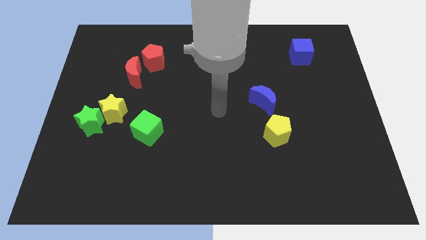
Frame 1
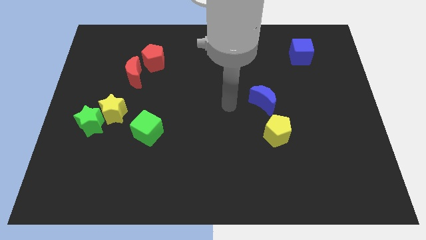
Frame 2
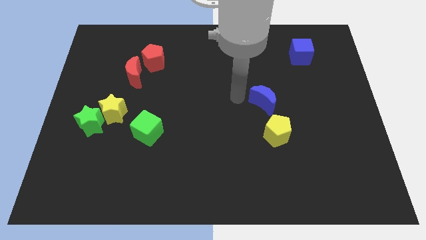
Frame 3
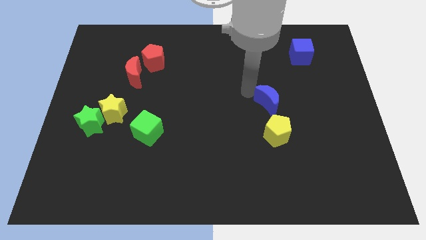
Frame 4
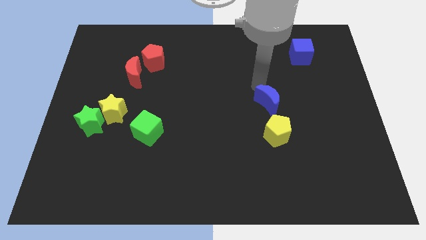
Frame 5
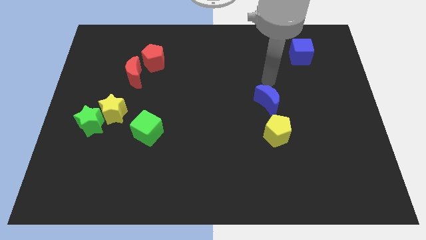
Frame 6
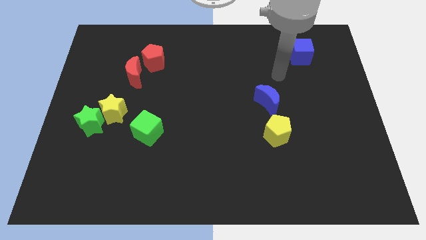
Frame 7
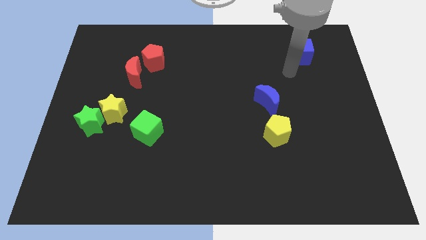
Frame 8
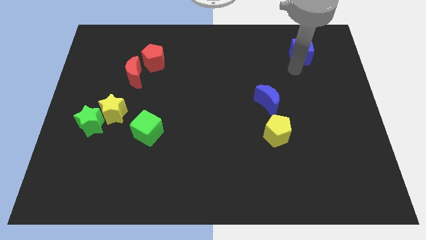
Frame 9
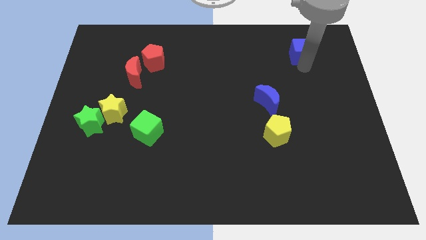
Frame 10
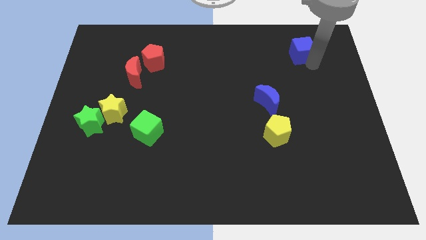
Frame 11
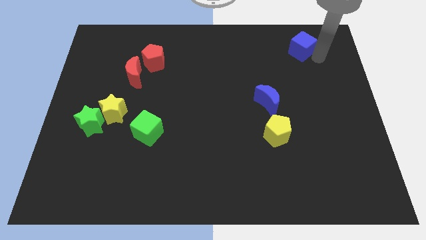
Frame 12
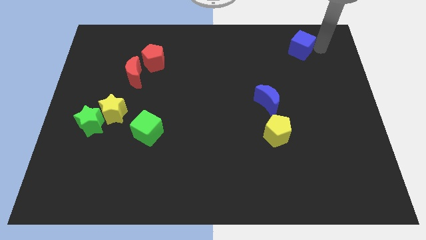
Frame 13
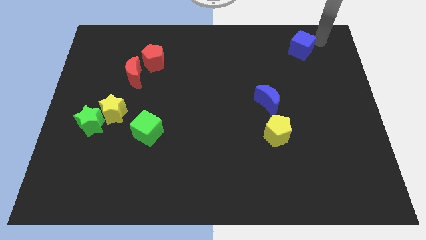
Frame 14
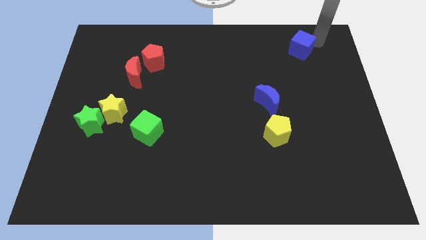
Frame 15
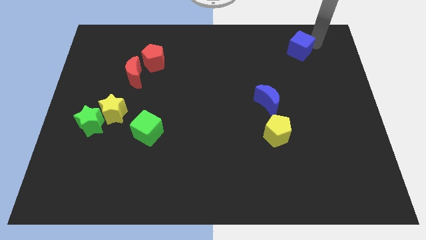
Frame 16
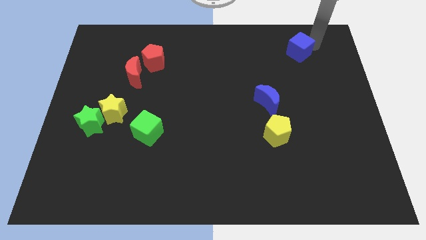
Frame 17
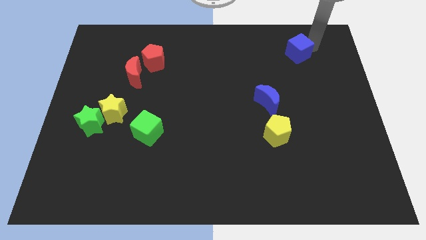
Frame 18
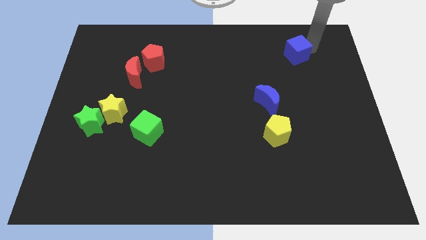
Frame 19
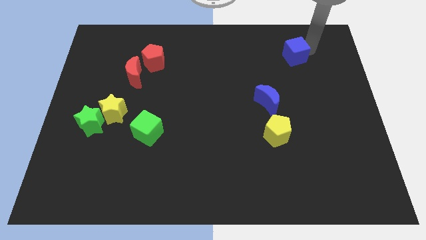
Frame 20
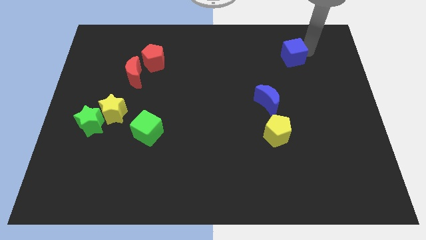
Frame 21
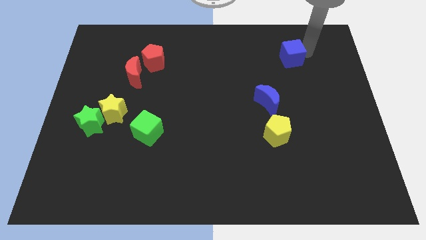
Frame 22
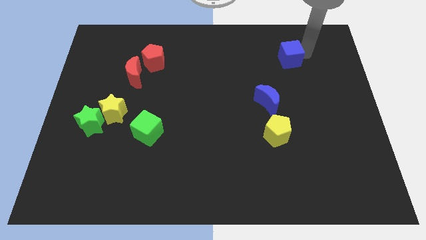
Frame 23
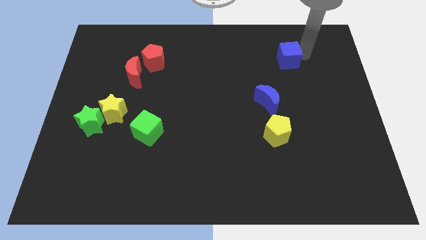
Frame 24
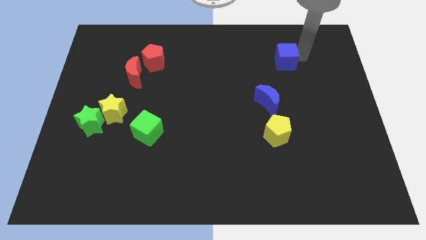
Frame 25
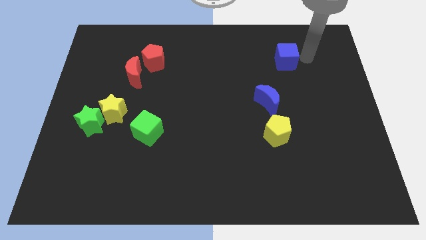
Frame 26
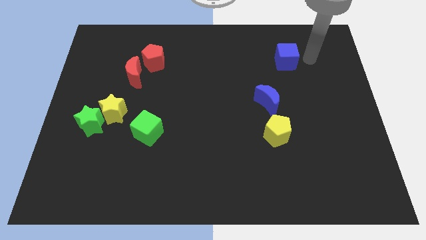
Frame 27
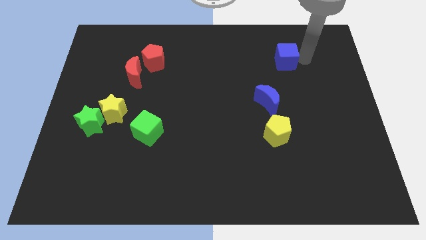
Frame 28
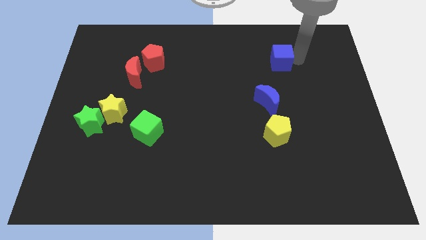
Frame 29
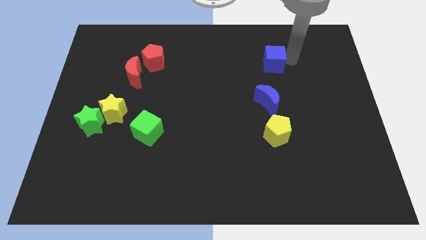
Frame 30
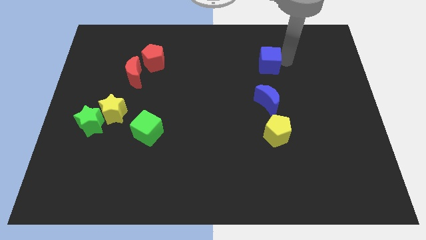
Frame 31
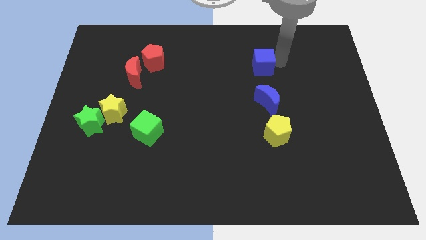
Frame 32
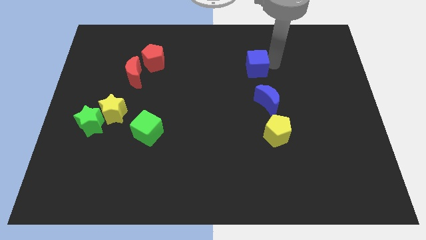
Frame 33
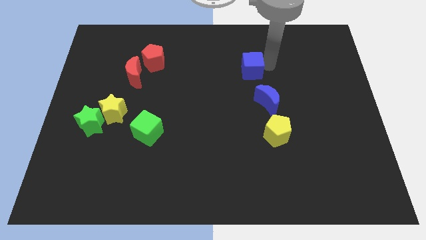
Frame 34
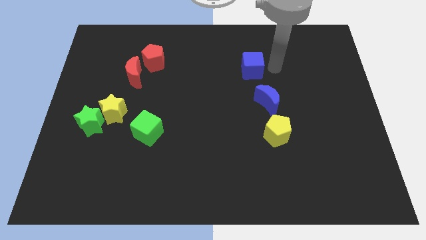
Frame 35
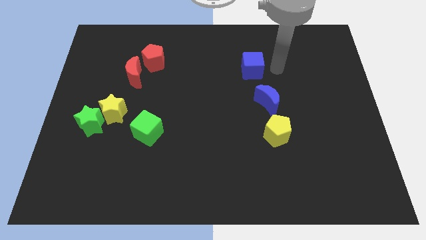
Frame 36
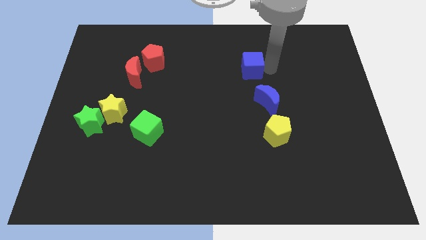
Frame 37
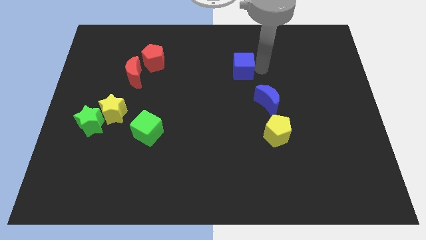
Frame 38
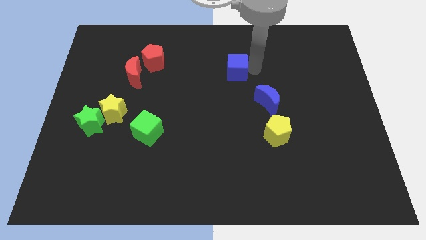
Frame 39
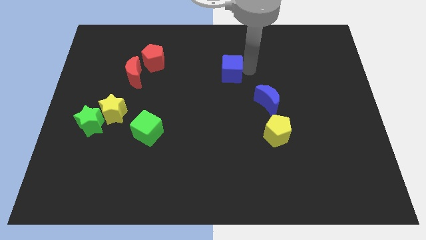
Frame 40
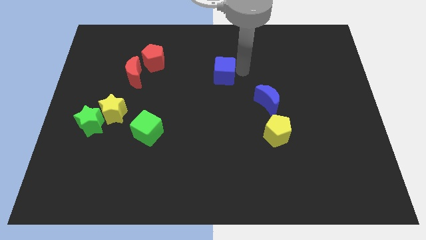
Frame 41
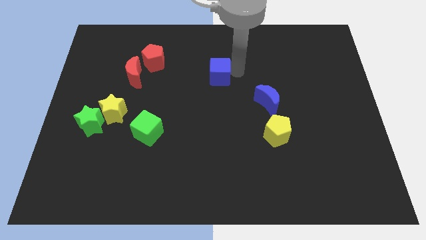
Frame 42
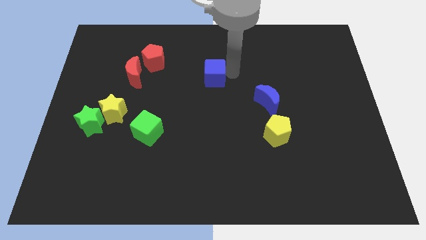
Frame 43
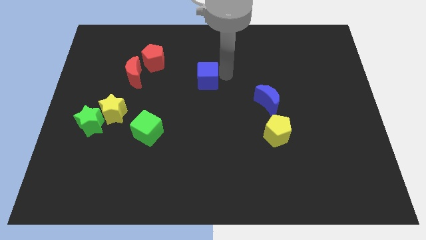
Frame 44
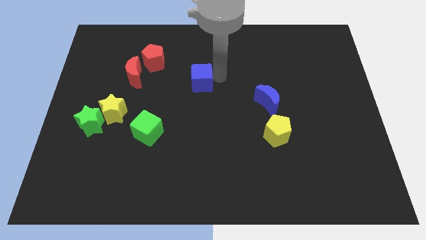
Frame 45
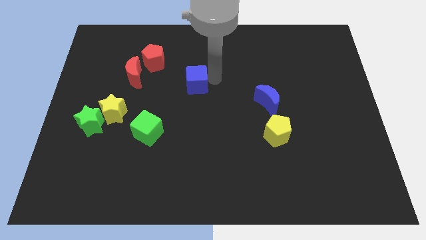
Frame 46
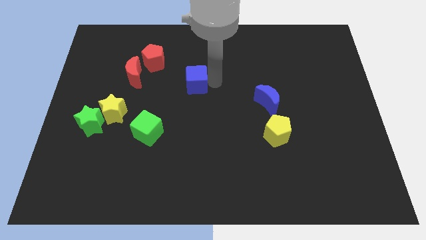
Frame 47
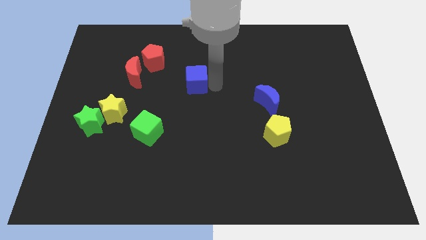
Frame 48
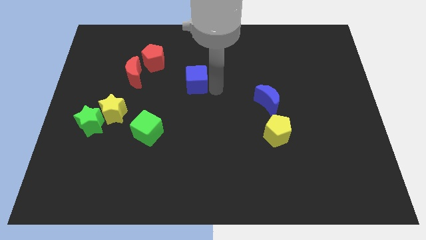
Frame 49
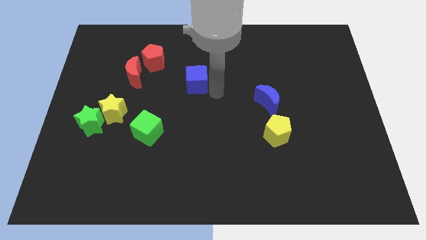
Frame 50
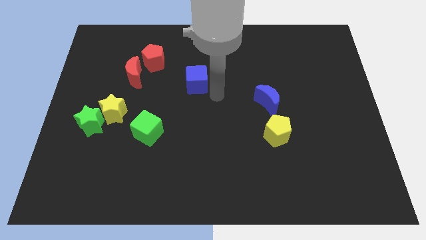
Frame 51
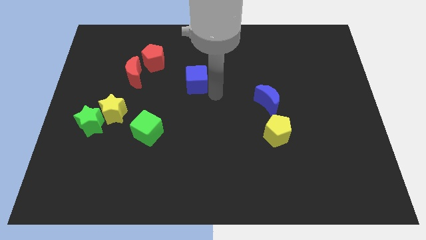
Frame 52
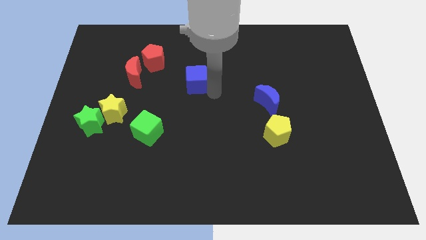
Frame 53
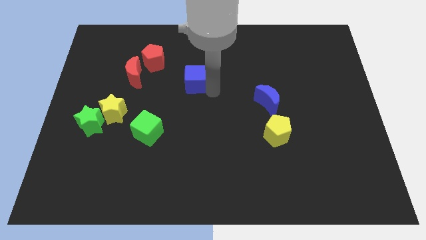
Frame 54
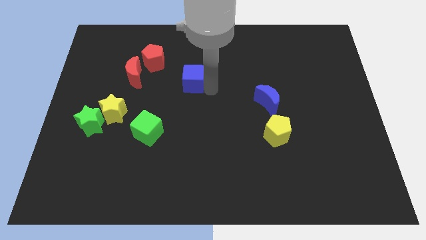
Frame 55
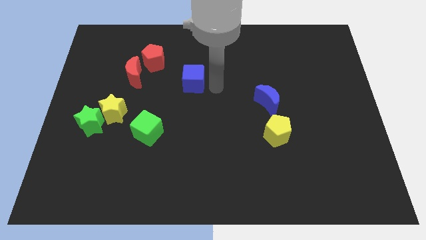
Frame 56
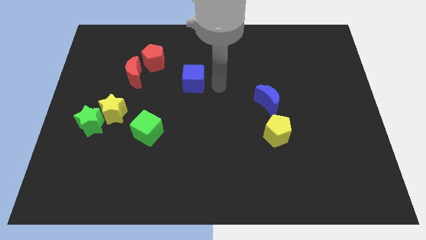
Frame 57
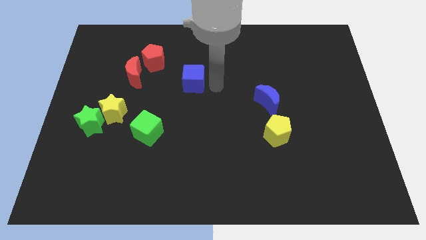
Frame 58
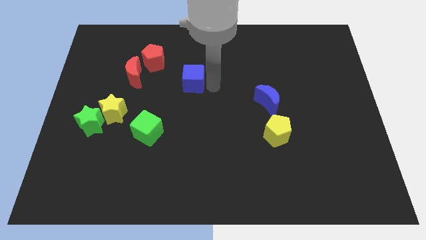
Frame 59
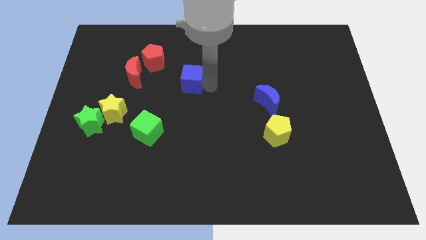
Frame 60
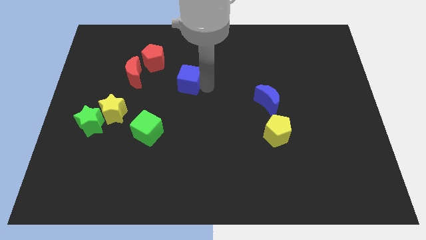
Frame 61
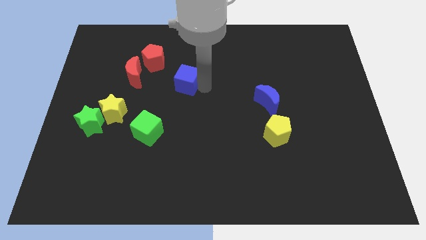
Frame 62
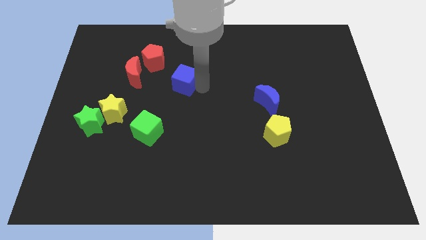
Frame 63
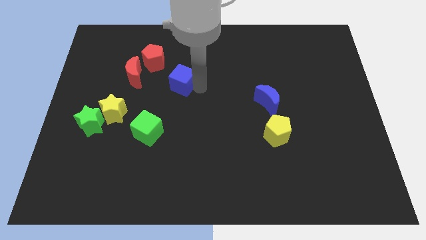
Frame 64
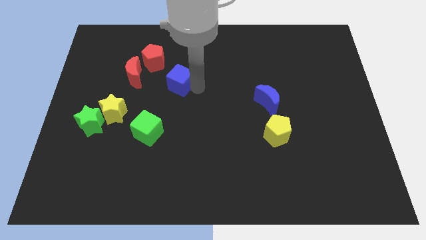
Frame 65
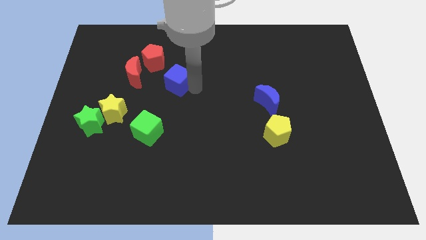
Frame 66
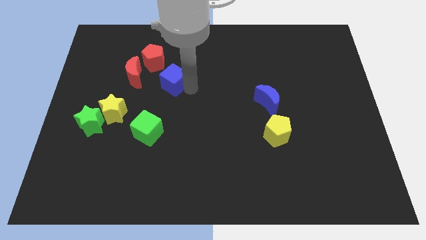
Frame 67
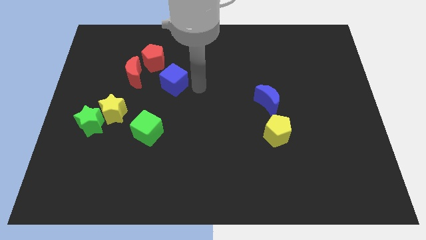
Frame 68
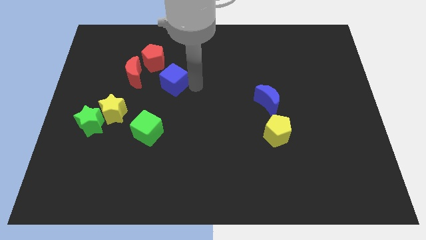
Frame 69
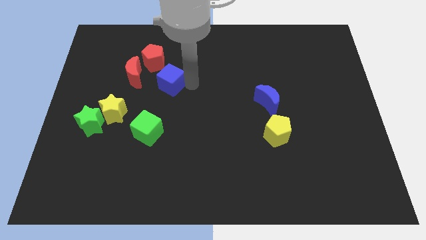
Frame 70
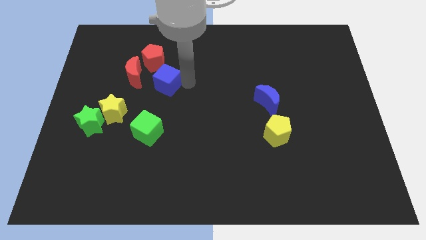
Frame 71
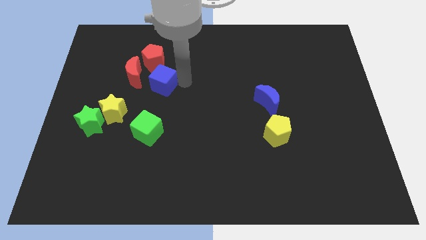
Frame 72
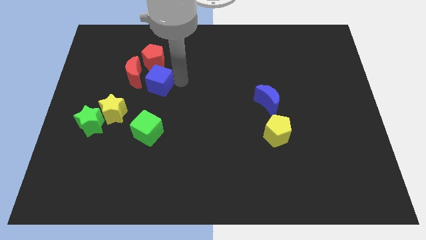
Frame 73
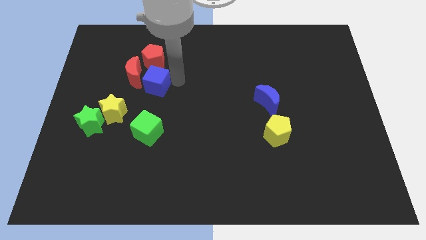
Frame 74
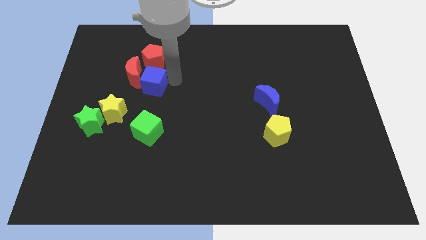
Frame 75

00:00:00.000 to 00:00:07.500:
slide the blue cube next to the red moon
